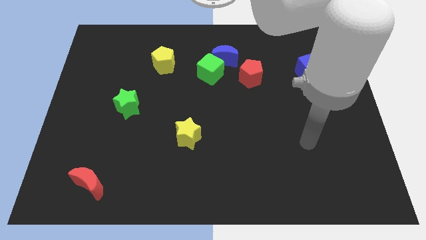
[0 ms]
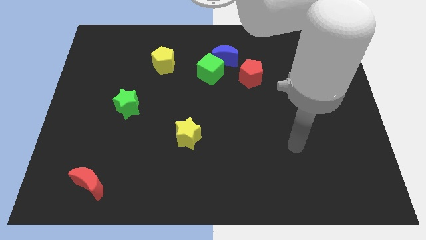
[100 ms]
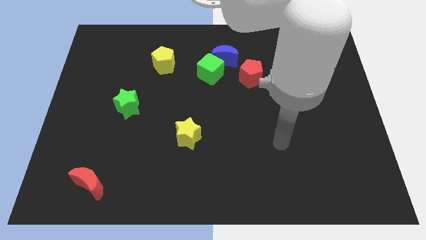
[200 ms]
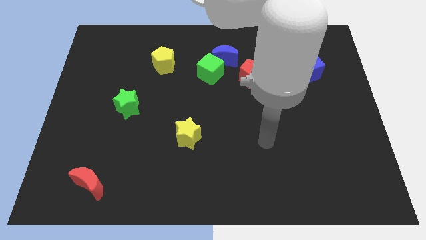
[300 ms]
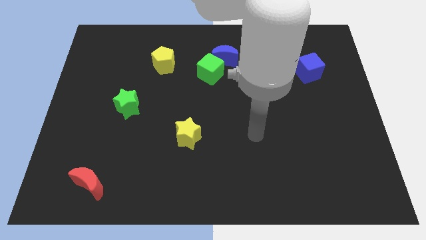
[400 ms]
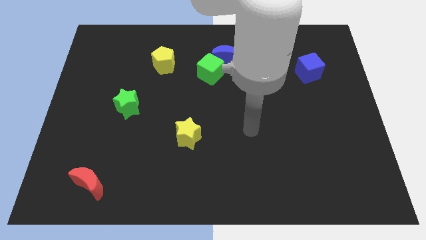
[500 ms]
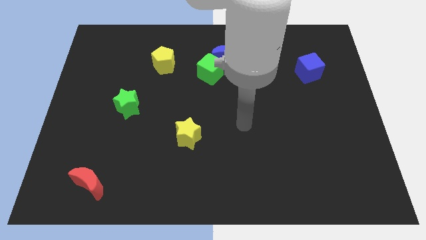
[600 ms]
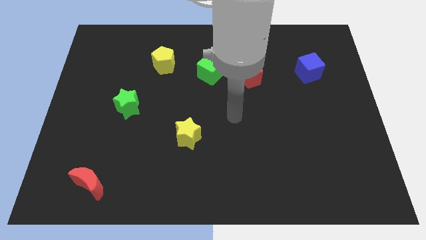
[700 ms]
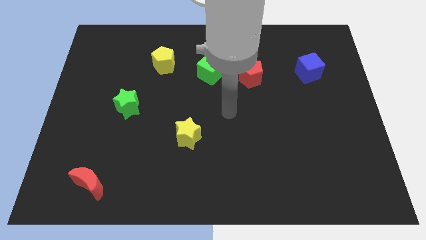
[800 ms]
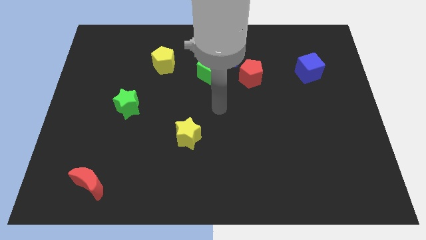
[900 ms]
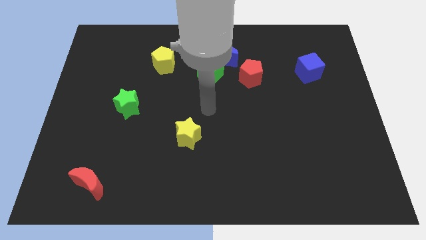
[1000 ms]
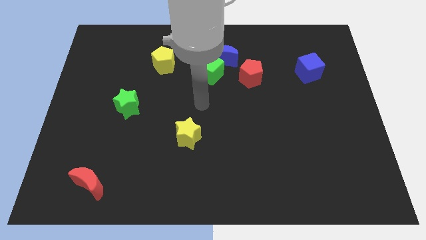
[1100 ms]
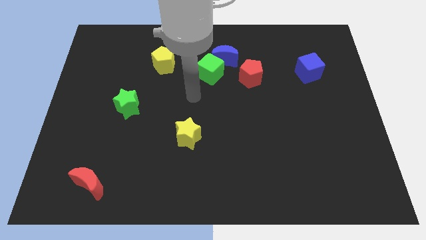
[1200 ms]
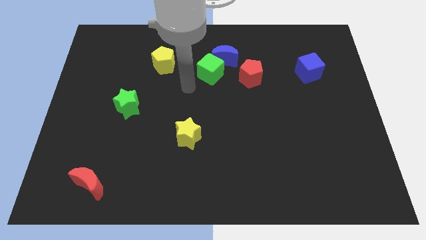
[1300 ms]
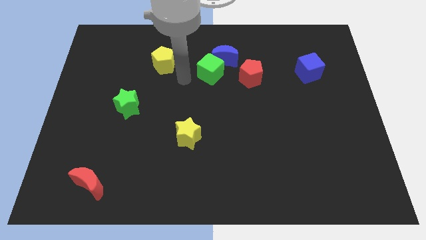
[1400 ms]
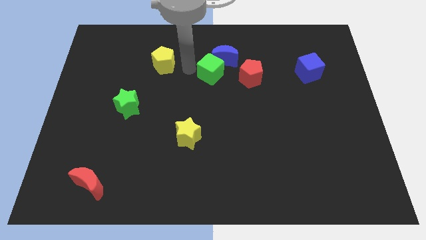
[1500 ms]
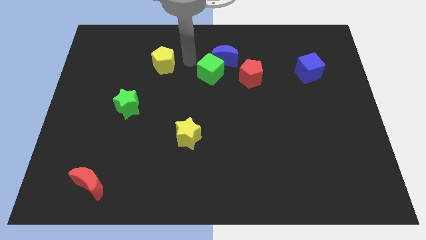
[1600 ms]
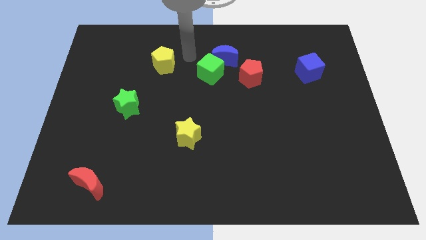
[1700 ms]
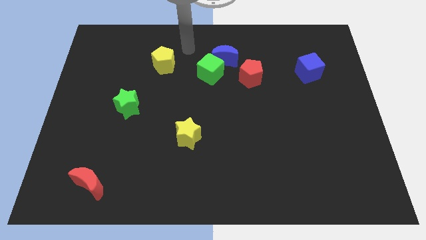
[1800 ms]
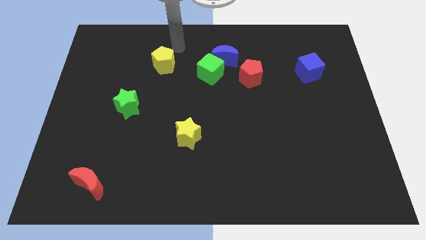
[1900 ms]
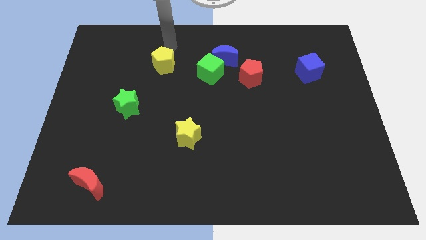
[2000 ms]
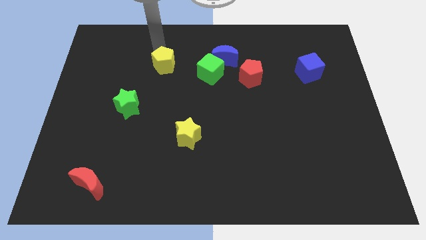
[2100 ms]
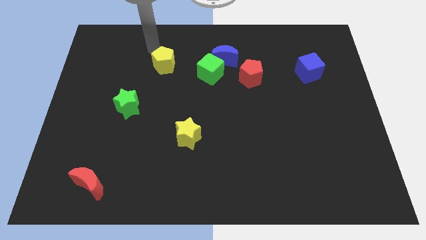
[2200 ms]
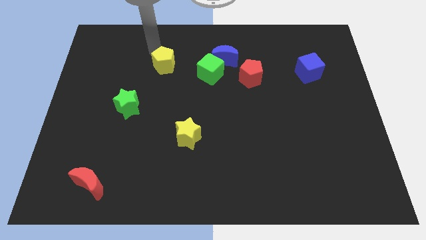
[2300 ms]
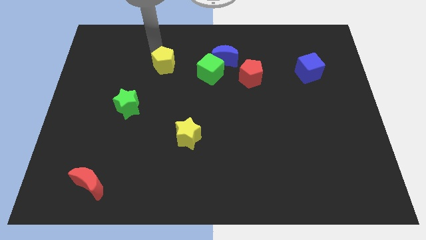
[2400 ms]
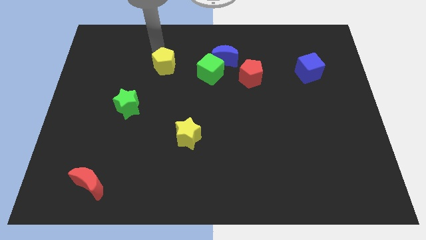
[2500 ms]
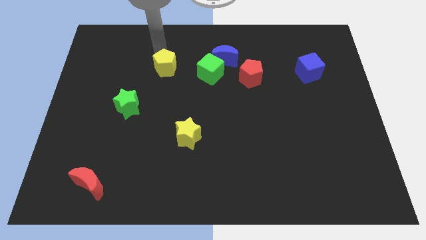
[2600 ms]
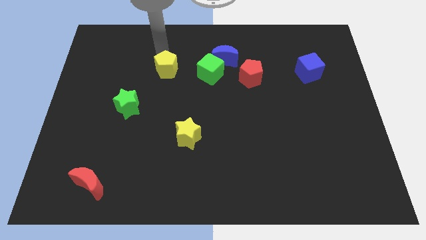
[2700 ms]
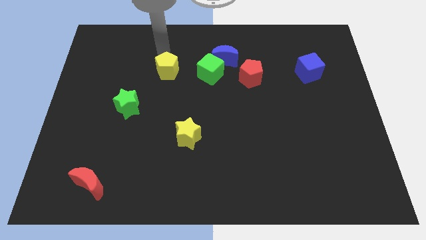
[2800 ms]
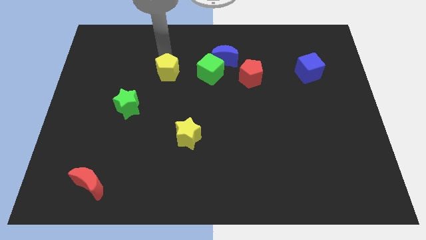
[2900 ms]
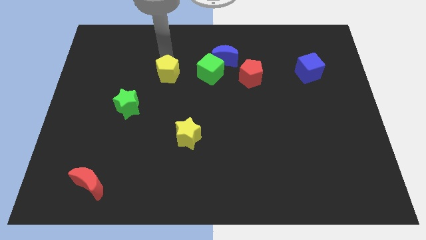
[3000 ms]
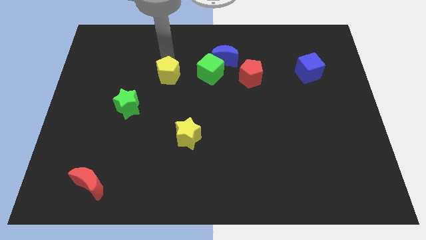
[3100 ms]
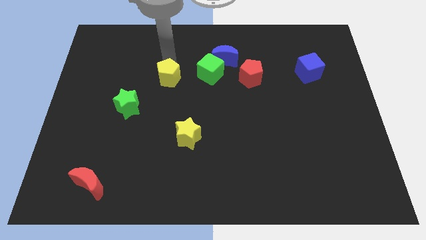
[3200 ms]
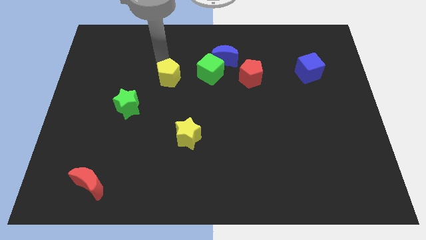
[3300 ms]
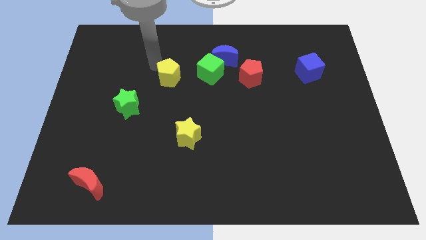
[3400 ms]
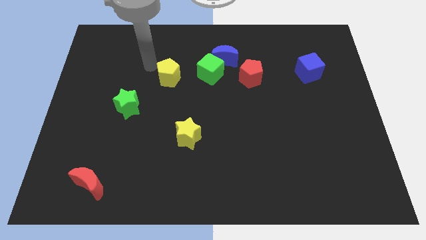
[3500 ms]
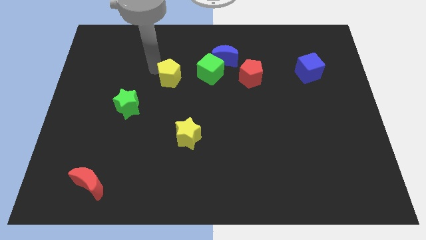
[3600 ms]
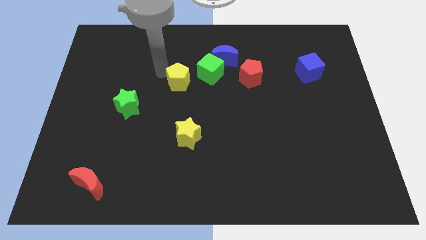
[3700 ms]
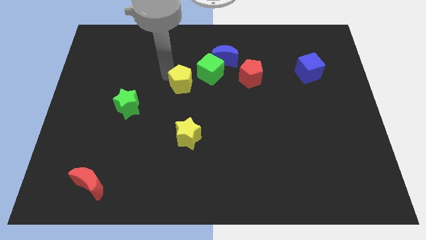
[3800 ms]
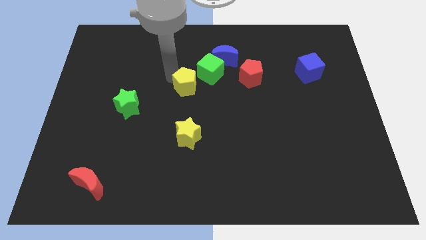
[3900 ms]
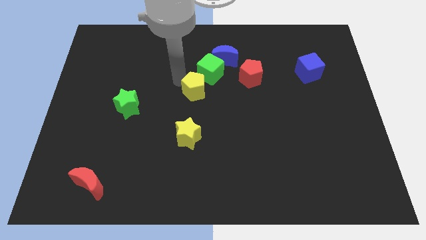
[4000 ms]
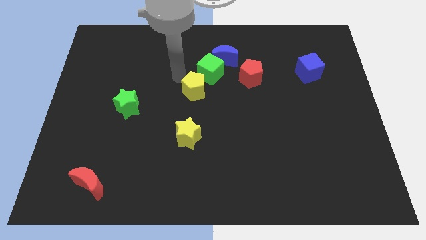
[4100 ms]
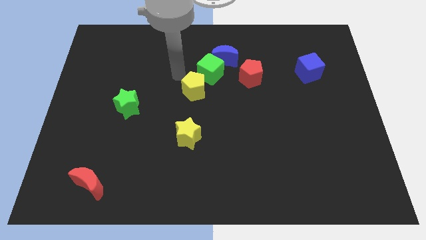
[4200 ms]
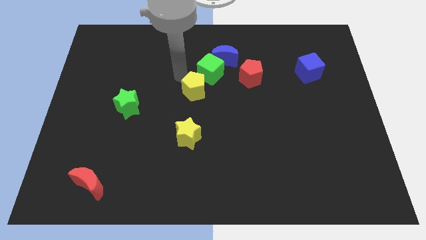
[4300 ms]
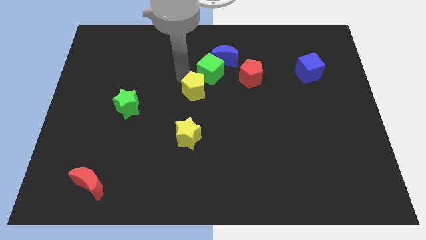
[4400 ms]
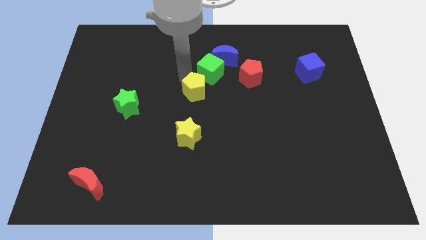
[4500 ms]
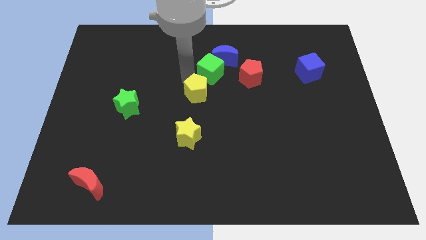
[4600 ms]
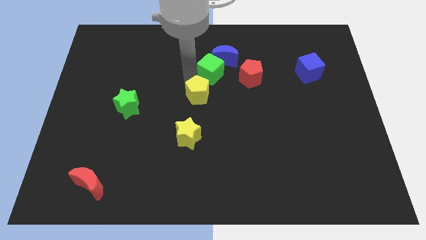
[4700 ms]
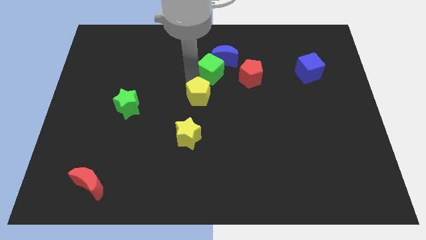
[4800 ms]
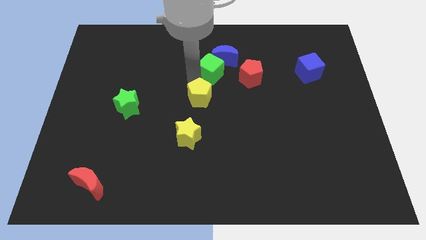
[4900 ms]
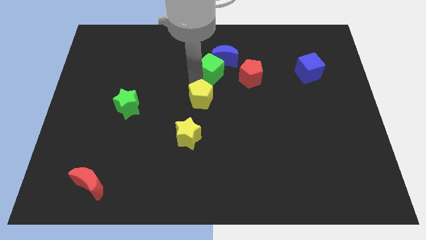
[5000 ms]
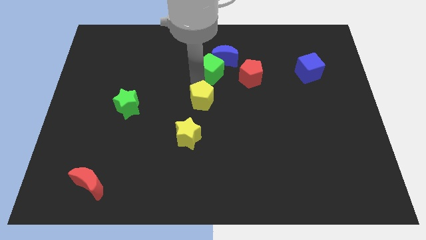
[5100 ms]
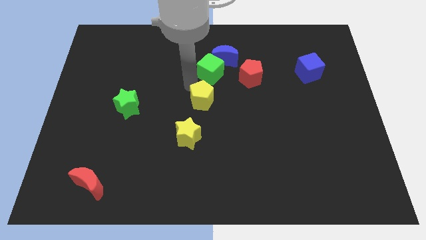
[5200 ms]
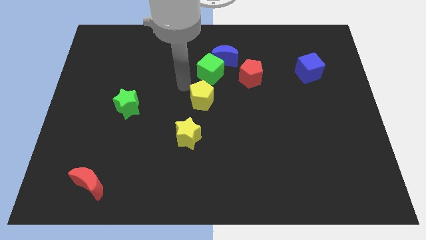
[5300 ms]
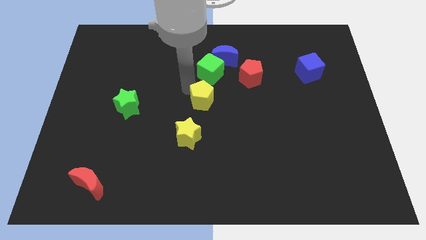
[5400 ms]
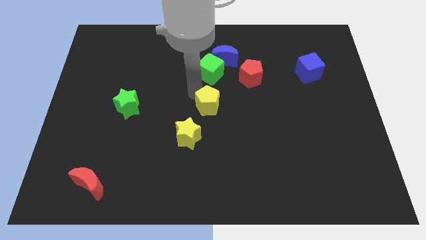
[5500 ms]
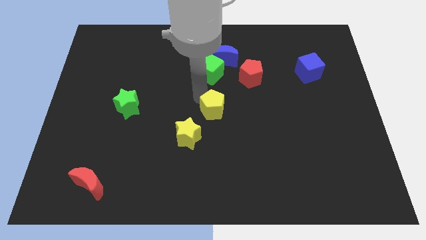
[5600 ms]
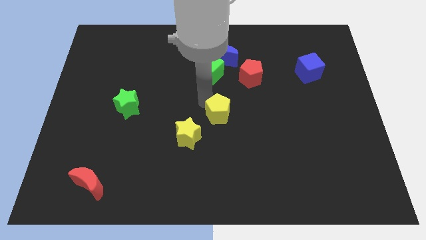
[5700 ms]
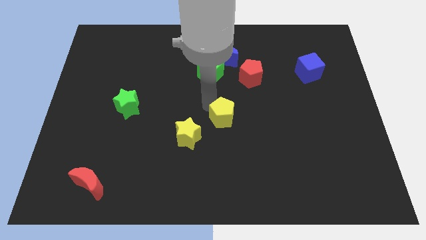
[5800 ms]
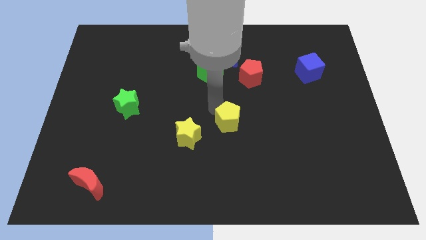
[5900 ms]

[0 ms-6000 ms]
put the yellow pentagon to the right of the yellow star

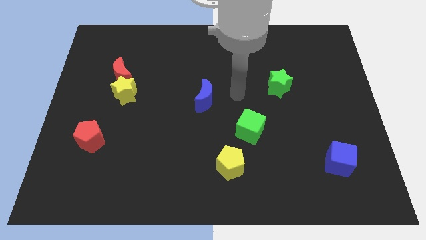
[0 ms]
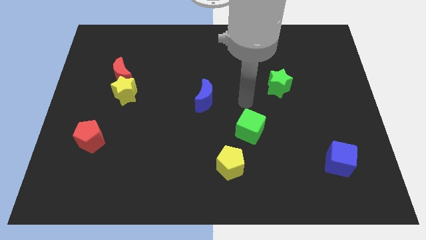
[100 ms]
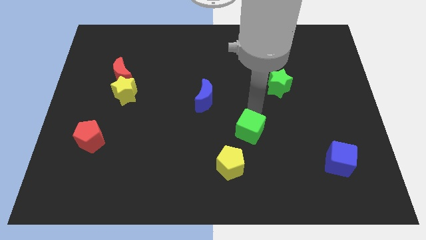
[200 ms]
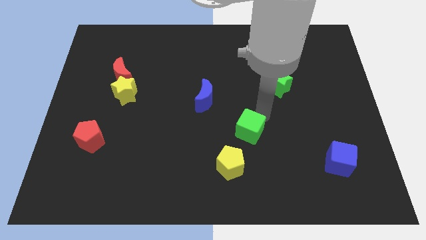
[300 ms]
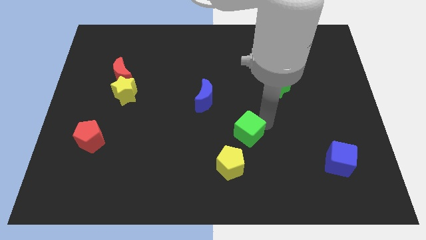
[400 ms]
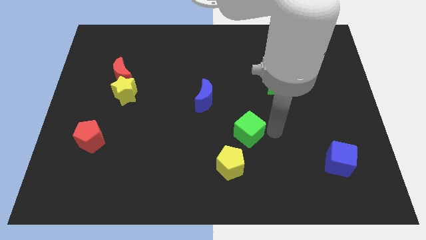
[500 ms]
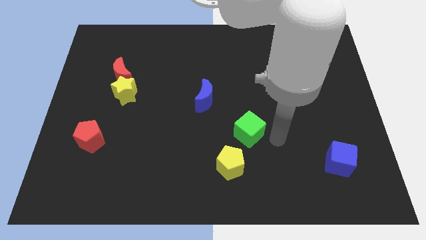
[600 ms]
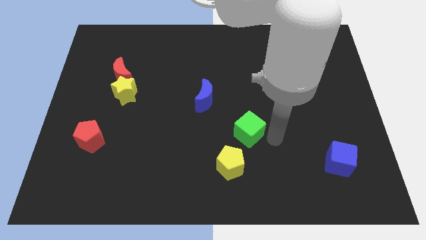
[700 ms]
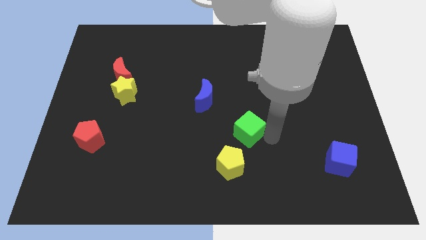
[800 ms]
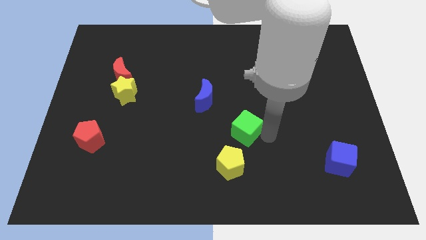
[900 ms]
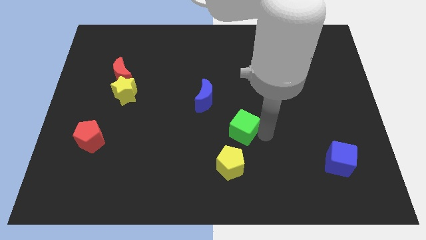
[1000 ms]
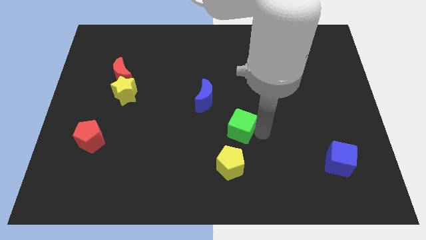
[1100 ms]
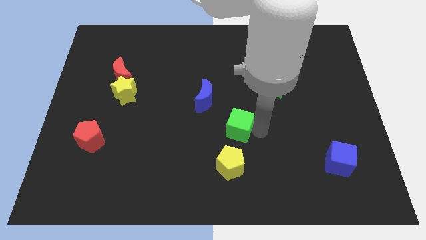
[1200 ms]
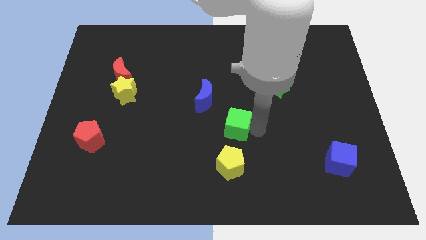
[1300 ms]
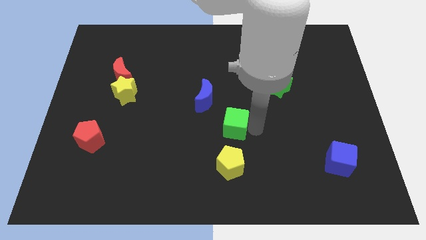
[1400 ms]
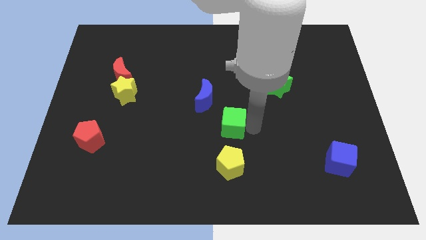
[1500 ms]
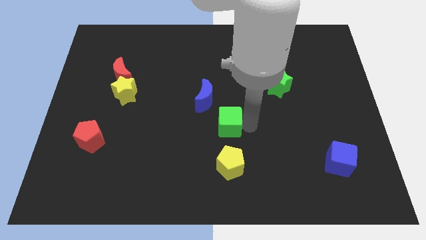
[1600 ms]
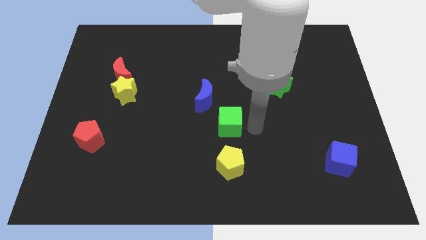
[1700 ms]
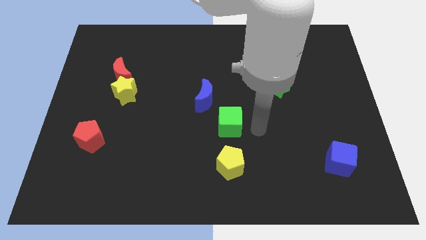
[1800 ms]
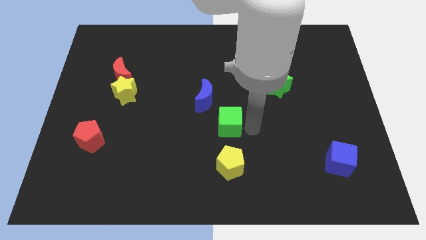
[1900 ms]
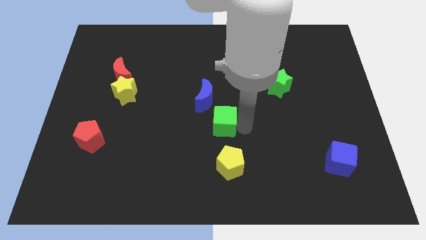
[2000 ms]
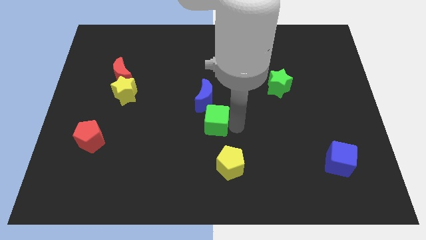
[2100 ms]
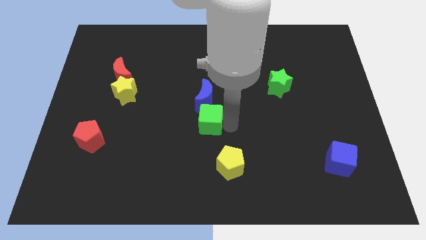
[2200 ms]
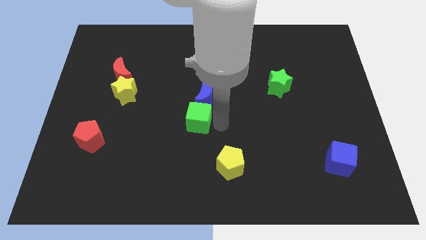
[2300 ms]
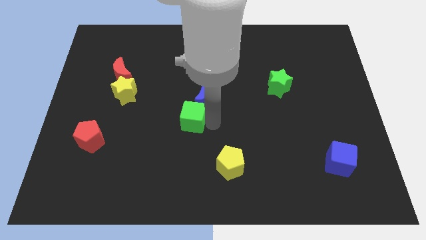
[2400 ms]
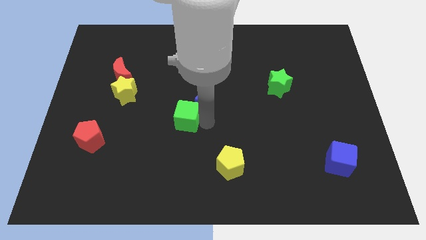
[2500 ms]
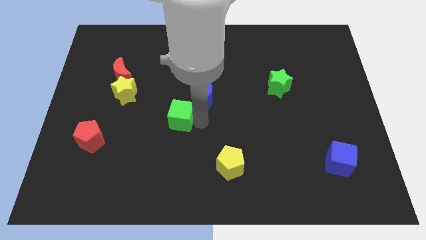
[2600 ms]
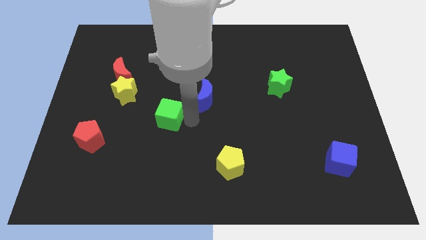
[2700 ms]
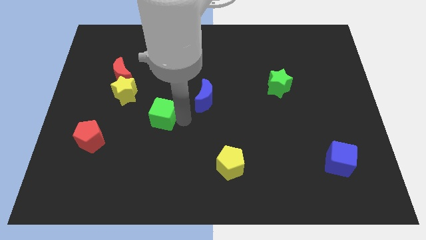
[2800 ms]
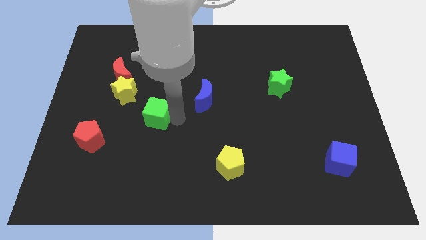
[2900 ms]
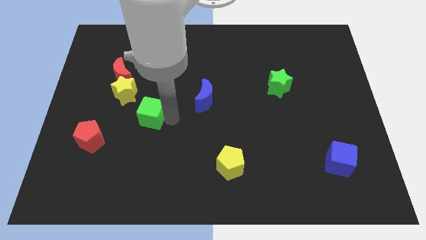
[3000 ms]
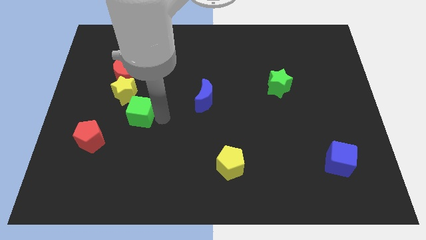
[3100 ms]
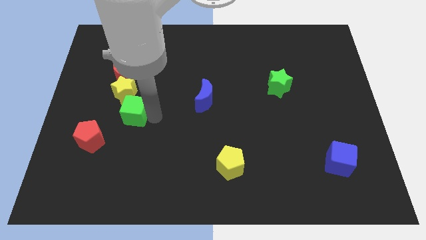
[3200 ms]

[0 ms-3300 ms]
put the green cube to the bottom of the red moon
